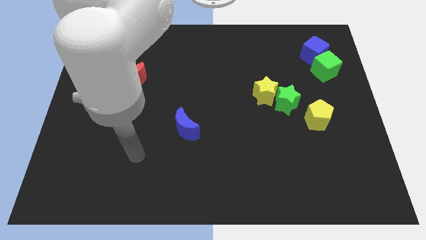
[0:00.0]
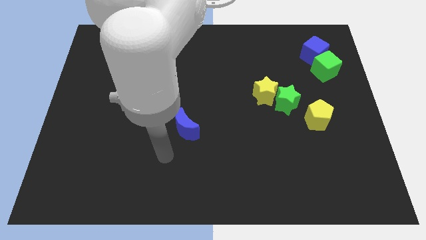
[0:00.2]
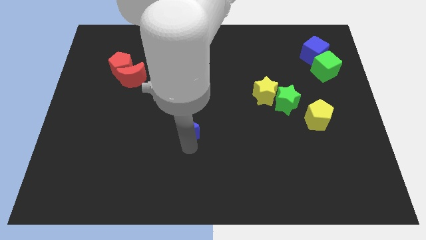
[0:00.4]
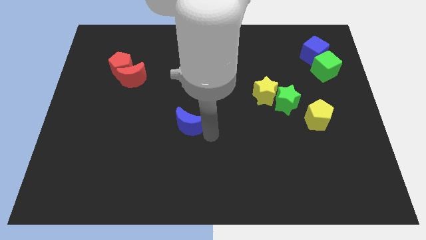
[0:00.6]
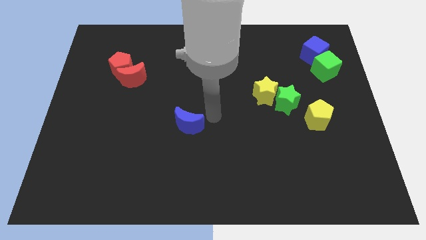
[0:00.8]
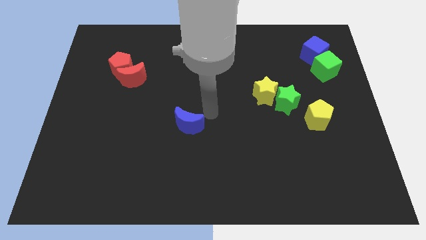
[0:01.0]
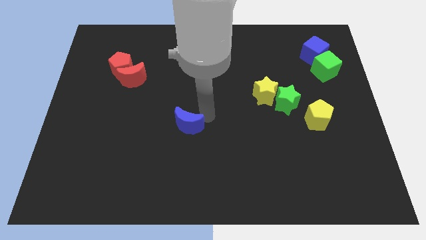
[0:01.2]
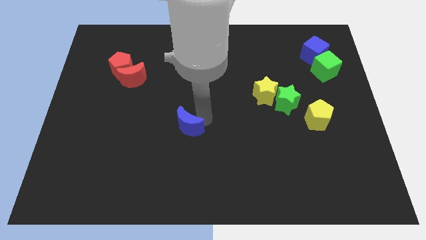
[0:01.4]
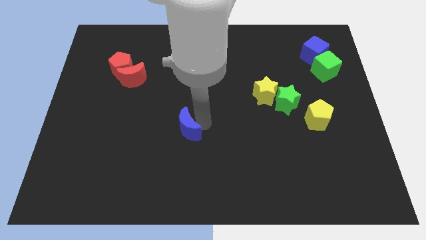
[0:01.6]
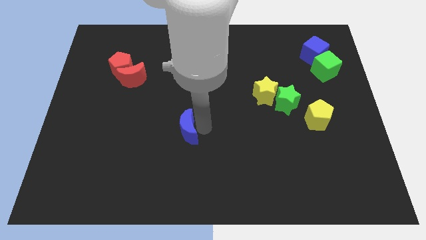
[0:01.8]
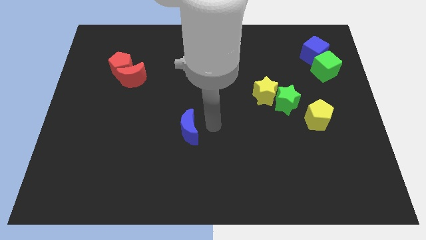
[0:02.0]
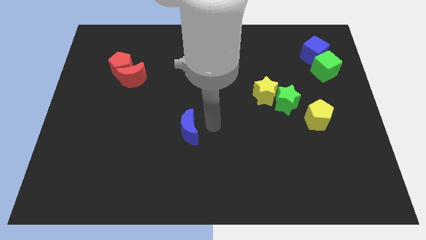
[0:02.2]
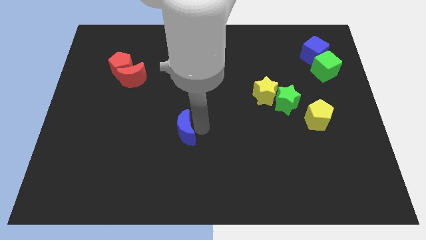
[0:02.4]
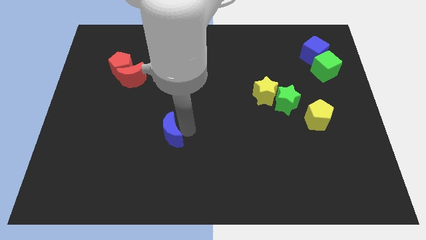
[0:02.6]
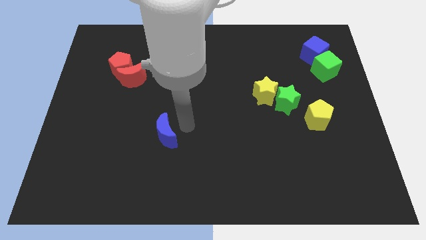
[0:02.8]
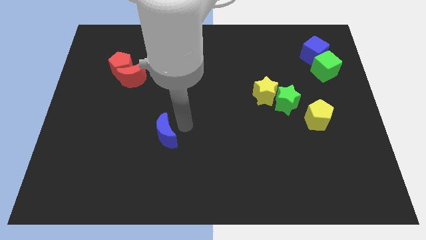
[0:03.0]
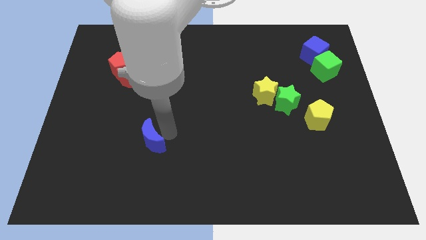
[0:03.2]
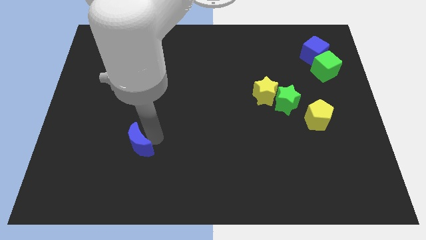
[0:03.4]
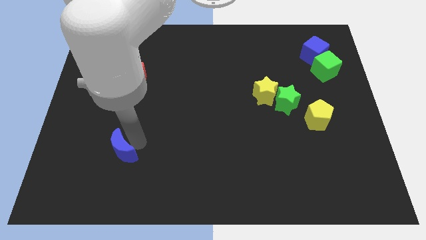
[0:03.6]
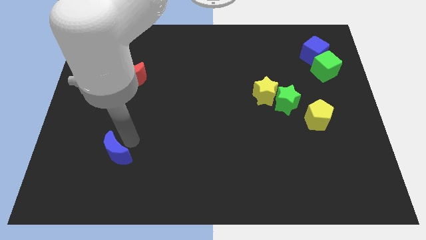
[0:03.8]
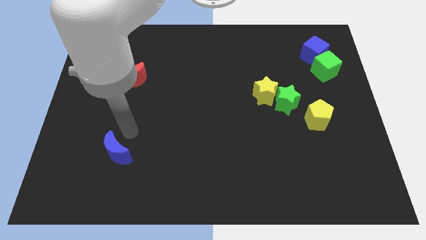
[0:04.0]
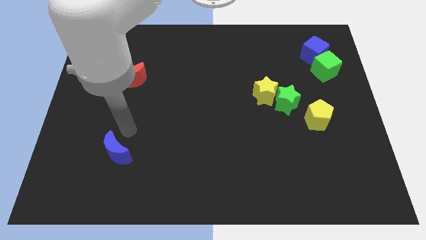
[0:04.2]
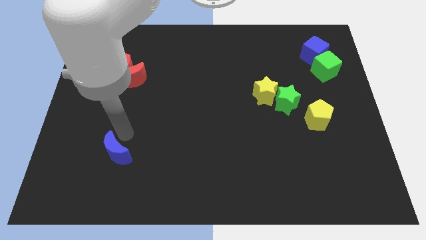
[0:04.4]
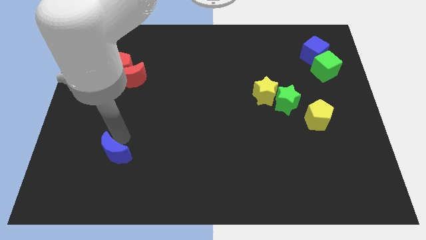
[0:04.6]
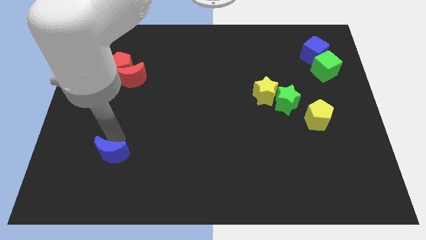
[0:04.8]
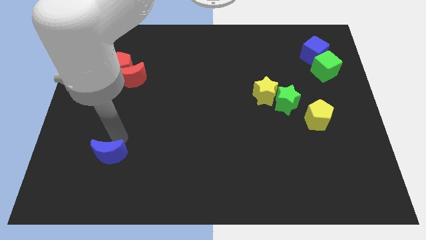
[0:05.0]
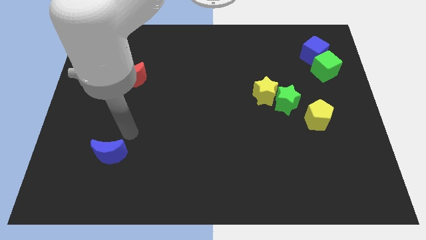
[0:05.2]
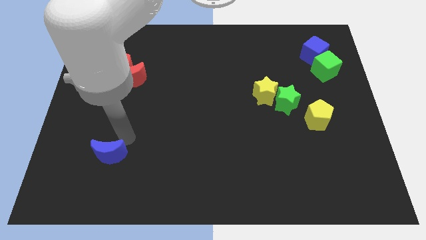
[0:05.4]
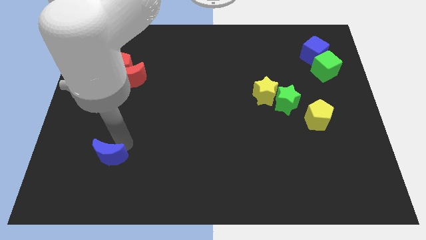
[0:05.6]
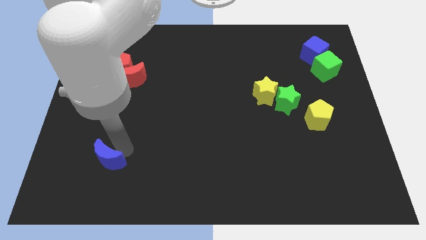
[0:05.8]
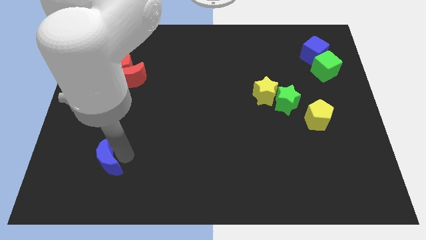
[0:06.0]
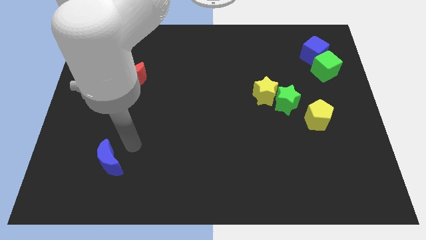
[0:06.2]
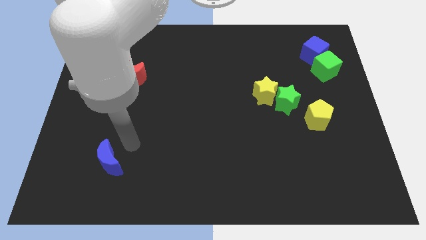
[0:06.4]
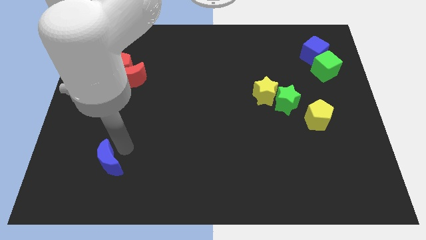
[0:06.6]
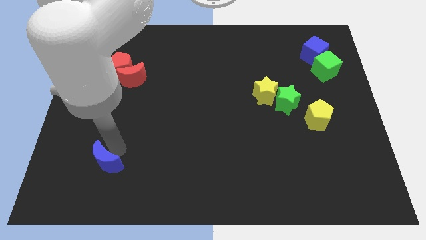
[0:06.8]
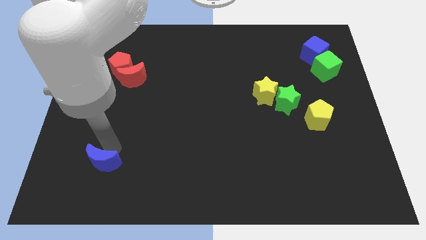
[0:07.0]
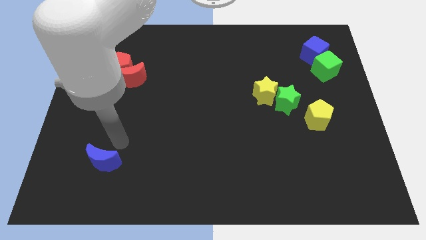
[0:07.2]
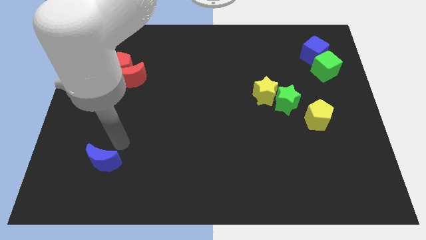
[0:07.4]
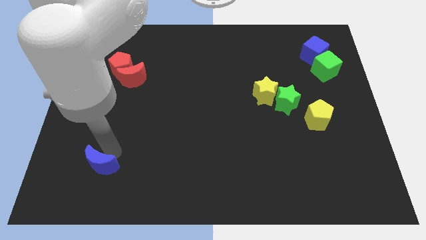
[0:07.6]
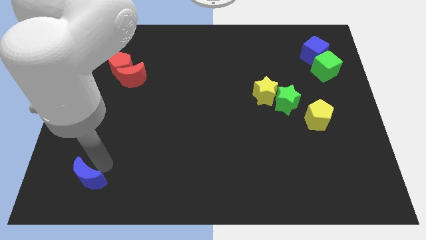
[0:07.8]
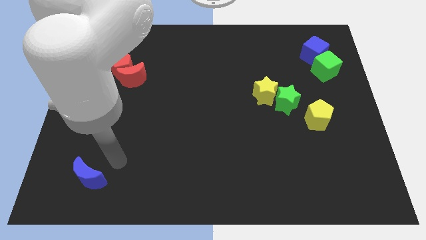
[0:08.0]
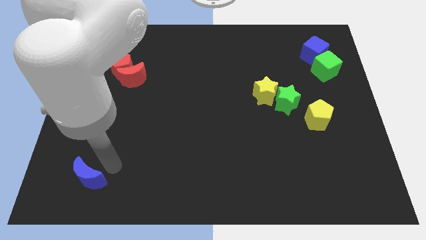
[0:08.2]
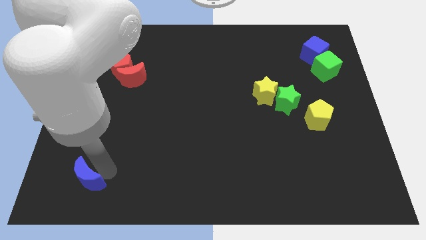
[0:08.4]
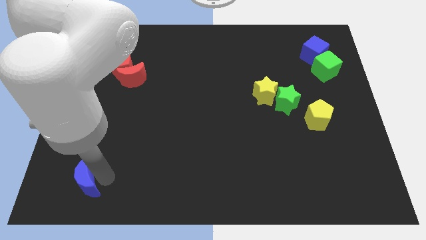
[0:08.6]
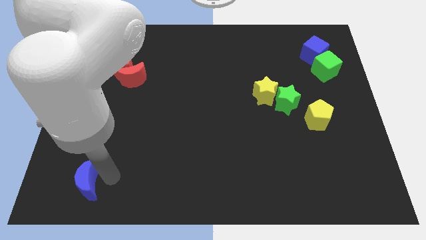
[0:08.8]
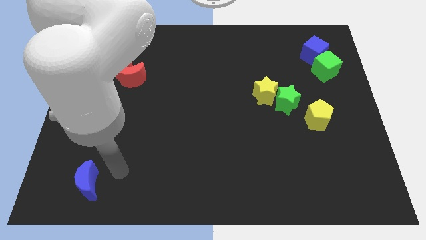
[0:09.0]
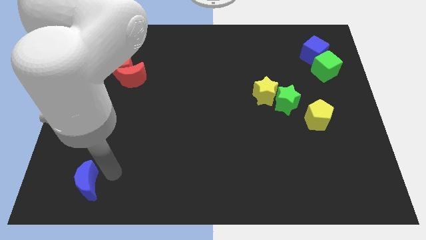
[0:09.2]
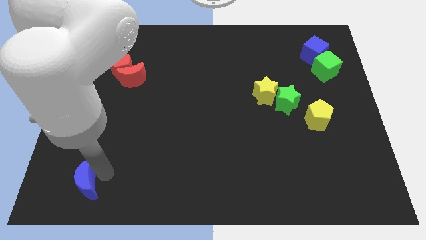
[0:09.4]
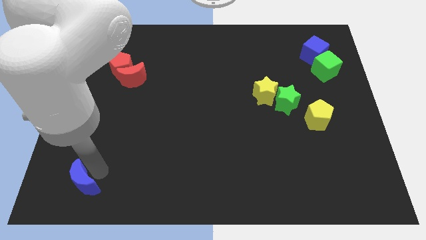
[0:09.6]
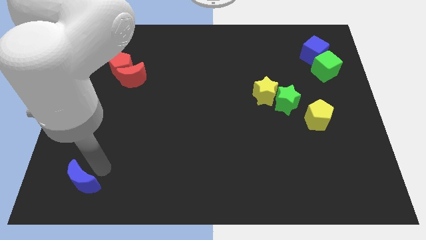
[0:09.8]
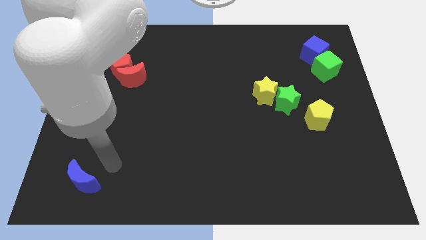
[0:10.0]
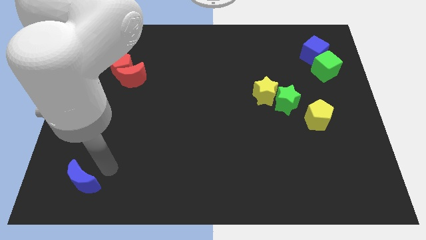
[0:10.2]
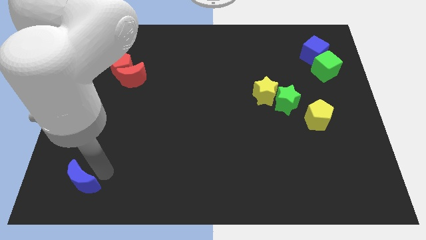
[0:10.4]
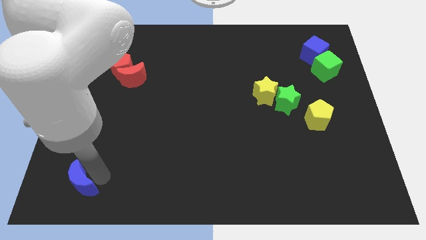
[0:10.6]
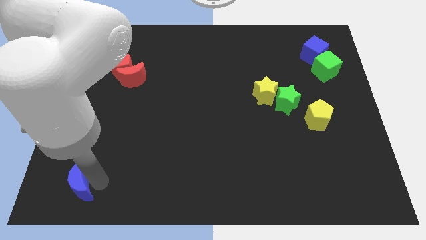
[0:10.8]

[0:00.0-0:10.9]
push the blue moon to the bottom left corner

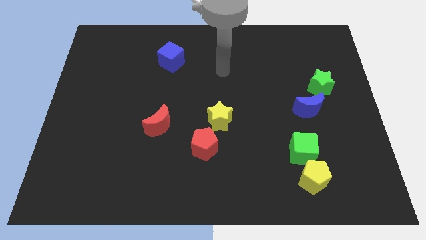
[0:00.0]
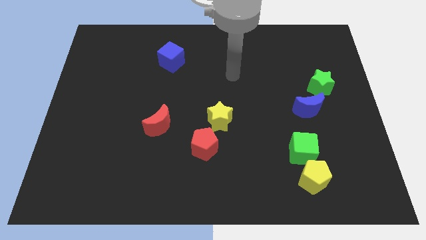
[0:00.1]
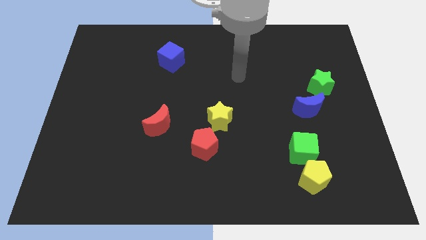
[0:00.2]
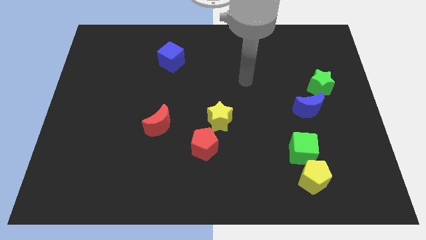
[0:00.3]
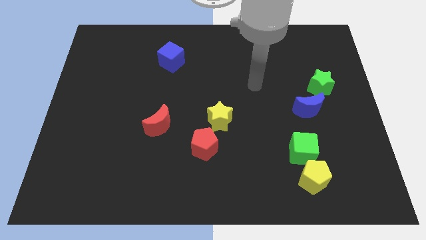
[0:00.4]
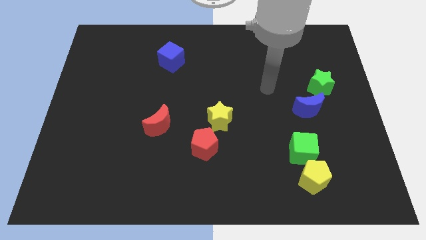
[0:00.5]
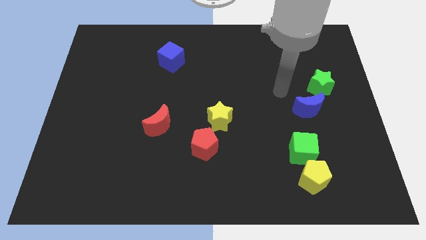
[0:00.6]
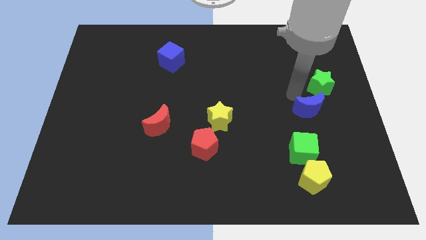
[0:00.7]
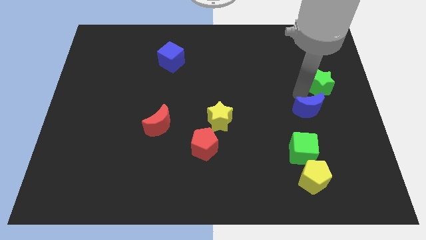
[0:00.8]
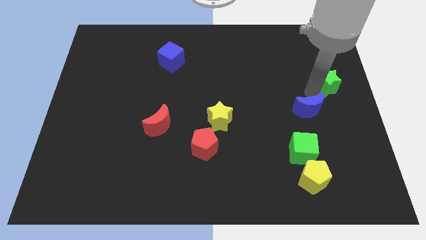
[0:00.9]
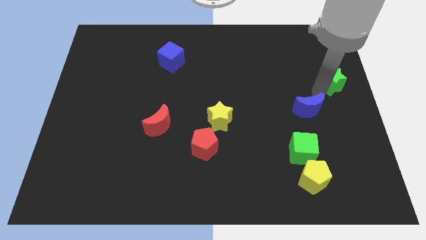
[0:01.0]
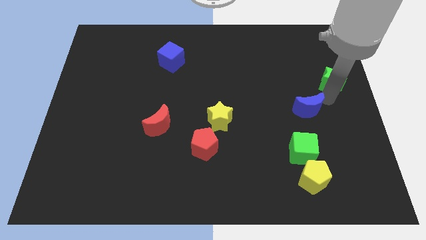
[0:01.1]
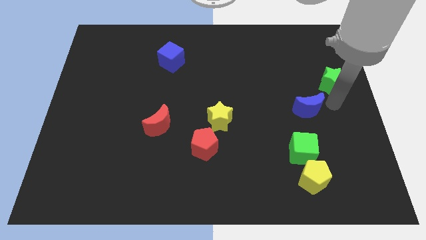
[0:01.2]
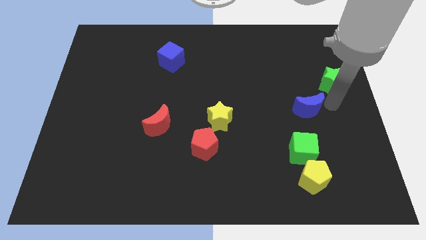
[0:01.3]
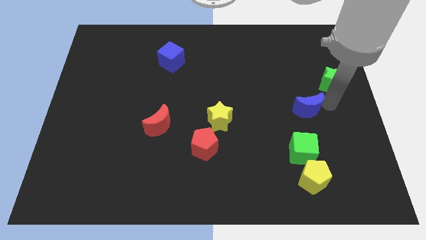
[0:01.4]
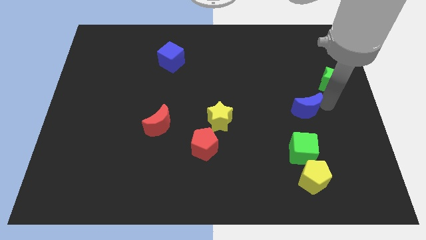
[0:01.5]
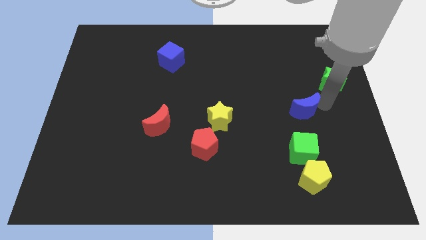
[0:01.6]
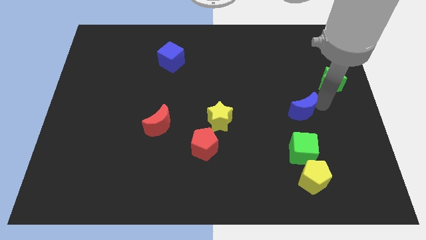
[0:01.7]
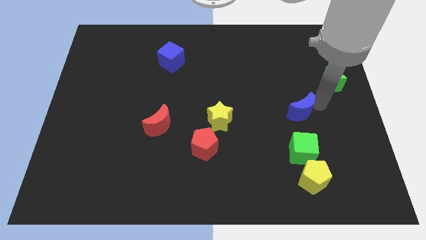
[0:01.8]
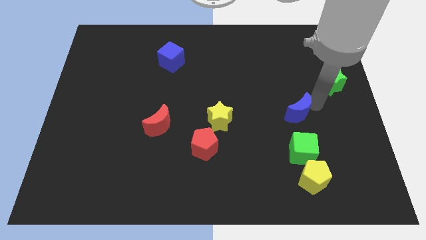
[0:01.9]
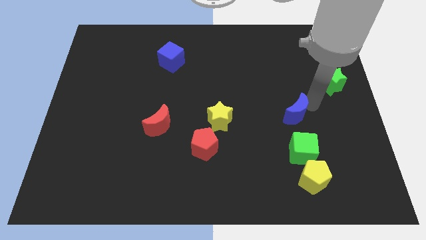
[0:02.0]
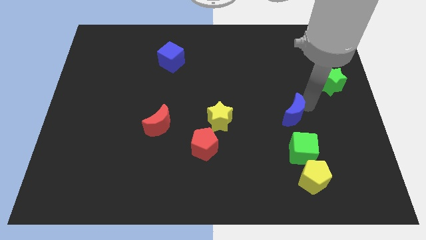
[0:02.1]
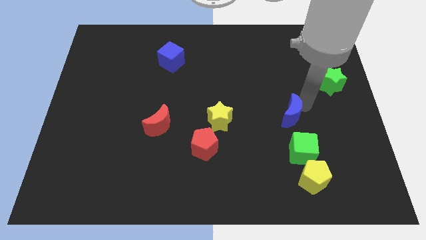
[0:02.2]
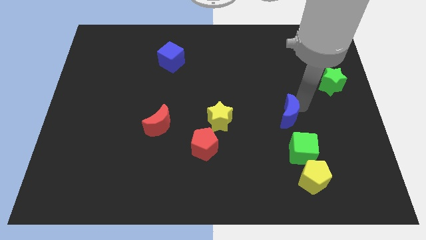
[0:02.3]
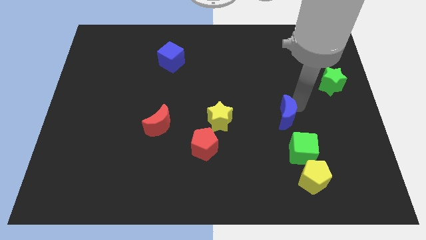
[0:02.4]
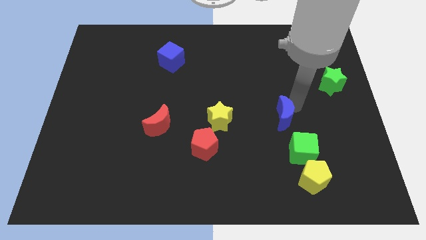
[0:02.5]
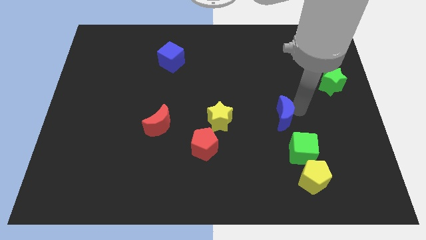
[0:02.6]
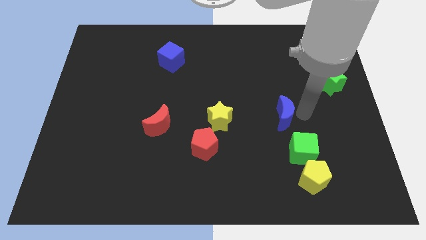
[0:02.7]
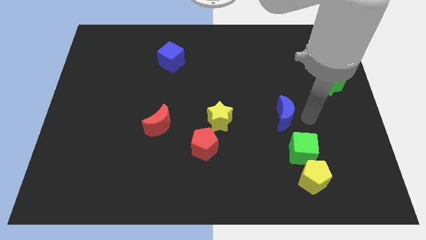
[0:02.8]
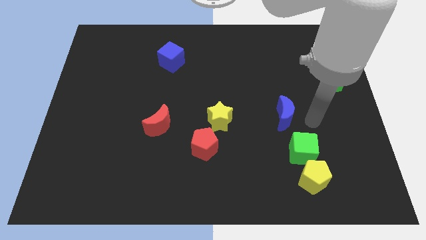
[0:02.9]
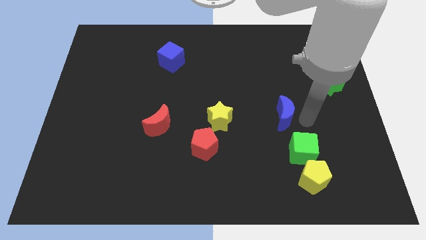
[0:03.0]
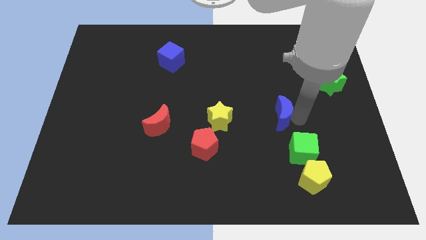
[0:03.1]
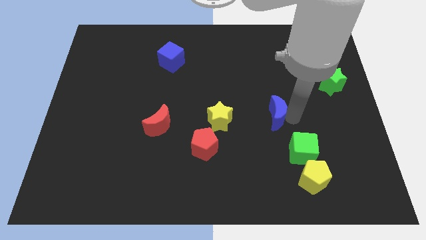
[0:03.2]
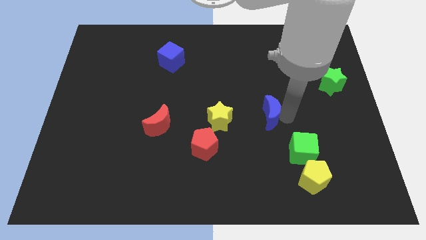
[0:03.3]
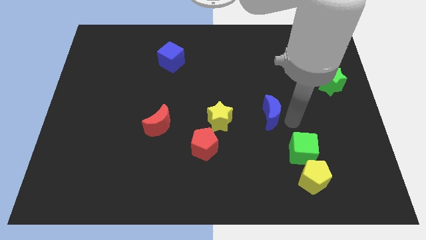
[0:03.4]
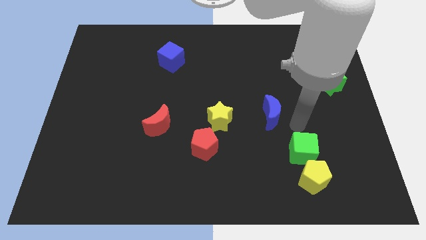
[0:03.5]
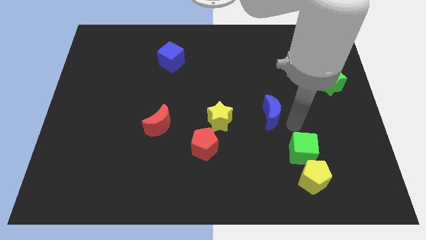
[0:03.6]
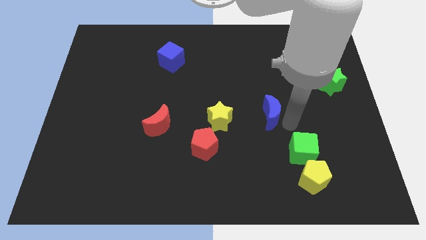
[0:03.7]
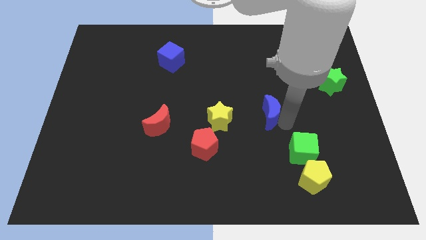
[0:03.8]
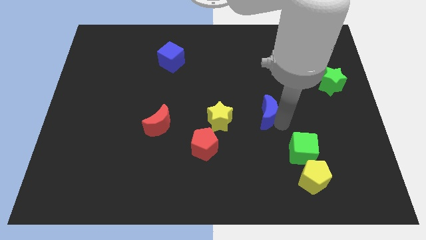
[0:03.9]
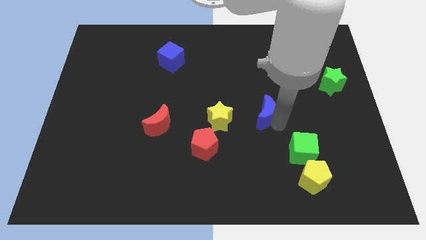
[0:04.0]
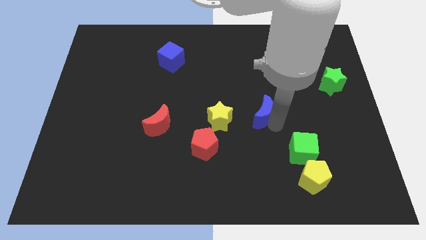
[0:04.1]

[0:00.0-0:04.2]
push the blue moon to the middle
